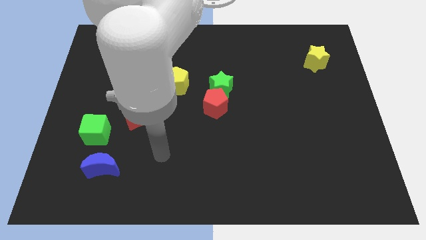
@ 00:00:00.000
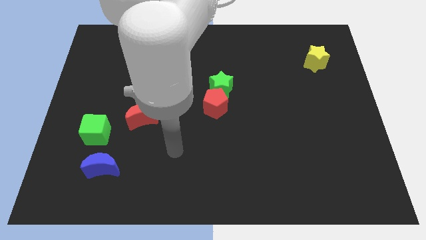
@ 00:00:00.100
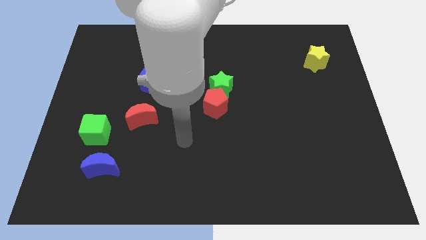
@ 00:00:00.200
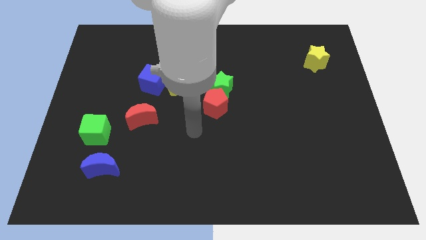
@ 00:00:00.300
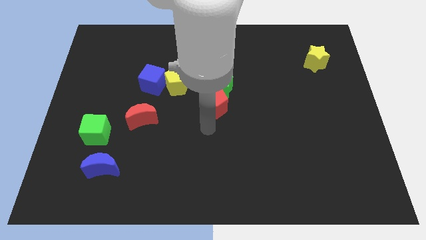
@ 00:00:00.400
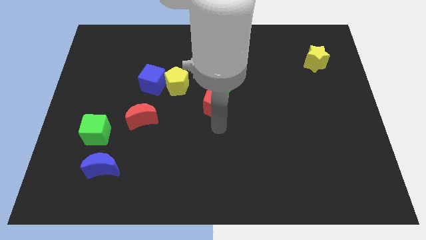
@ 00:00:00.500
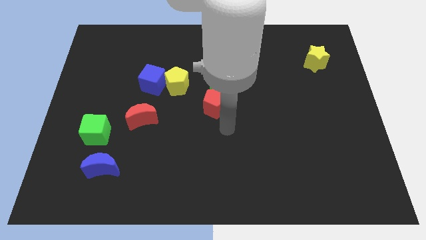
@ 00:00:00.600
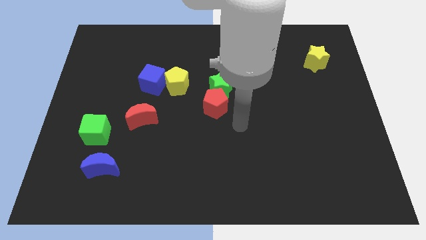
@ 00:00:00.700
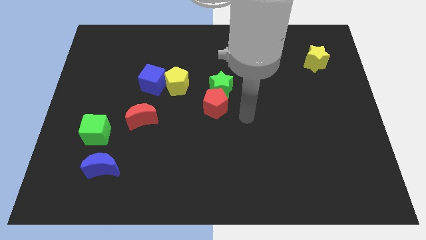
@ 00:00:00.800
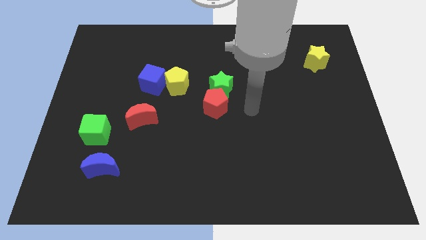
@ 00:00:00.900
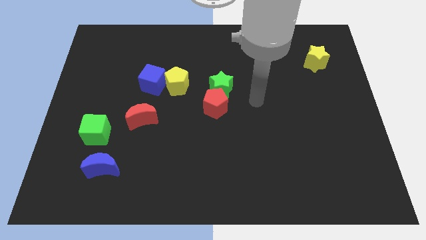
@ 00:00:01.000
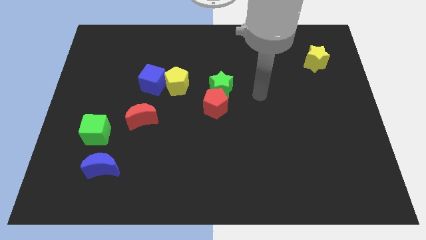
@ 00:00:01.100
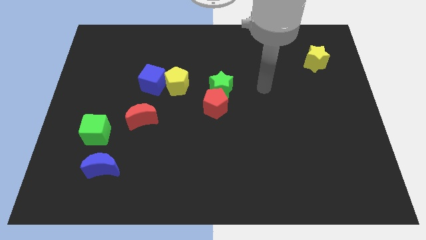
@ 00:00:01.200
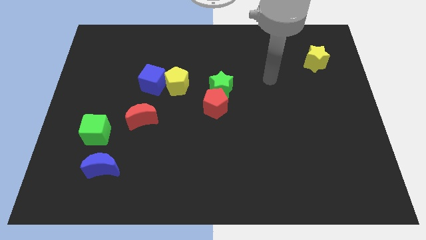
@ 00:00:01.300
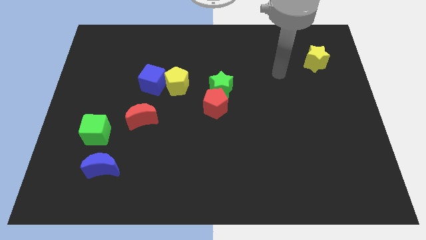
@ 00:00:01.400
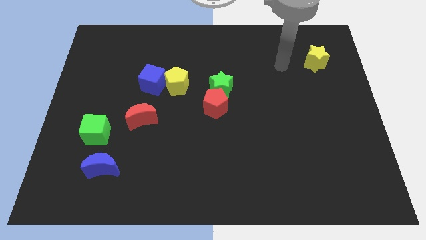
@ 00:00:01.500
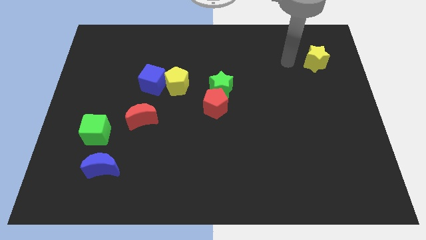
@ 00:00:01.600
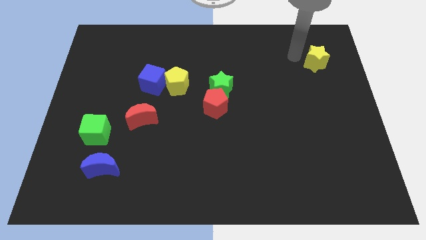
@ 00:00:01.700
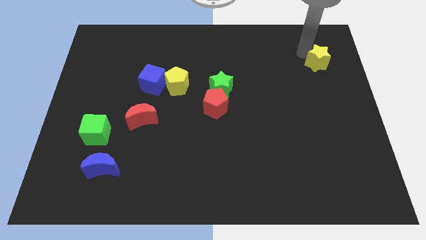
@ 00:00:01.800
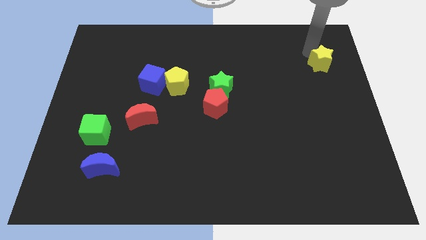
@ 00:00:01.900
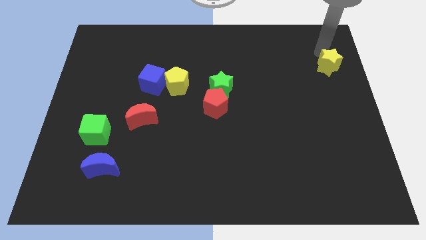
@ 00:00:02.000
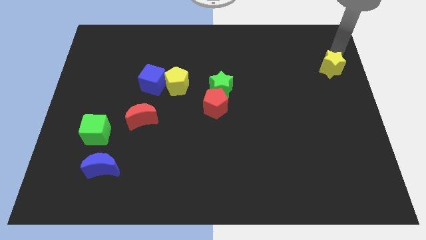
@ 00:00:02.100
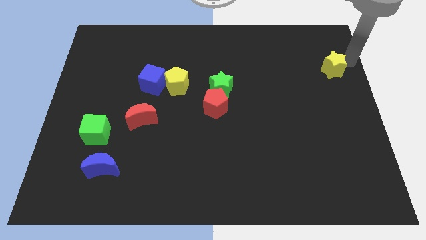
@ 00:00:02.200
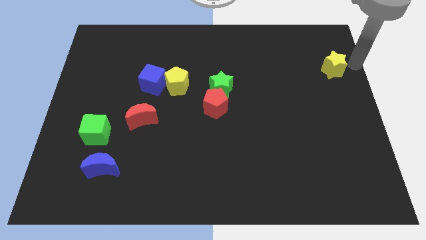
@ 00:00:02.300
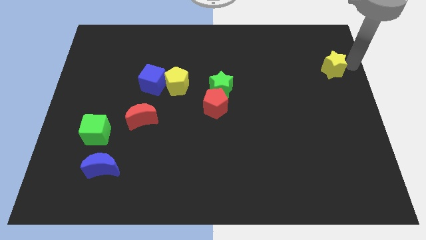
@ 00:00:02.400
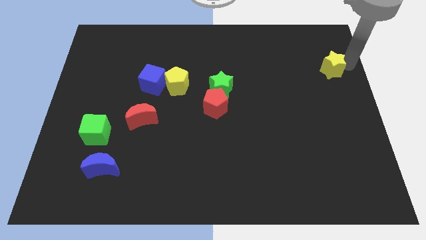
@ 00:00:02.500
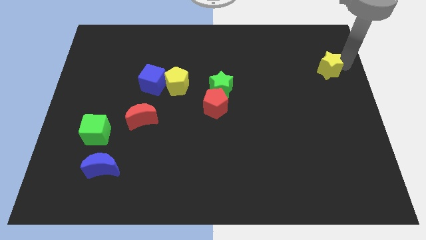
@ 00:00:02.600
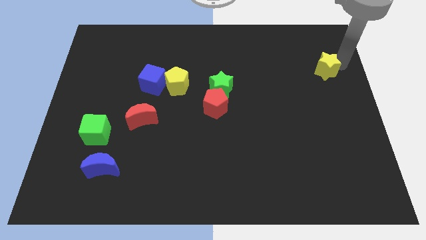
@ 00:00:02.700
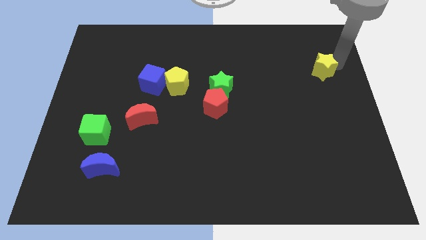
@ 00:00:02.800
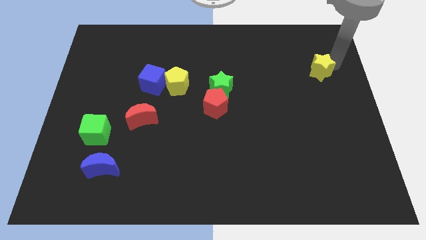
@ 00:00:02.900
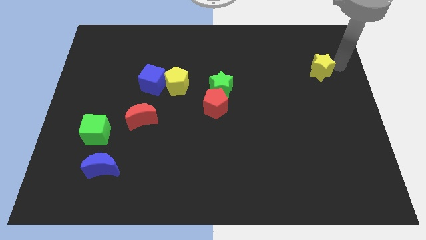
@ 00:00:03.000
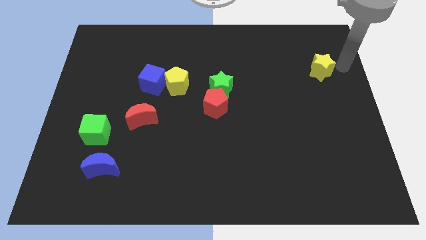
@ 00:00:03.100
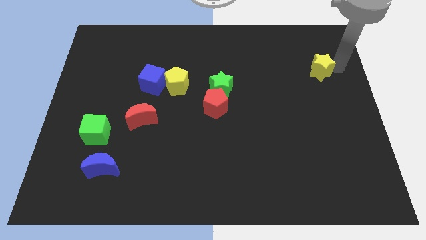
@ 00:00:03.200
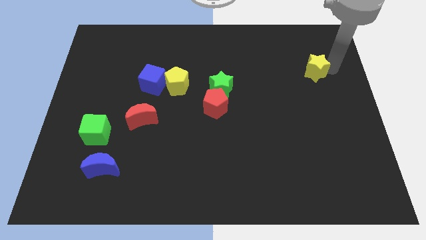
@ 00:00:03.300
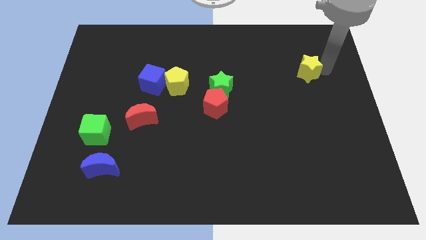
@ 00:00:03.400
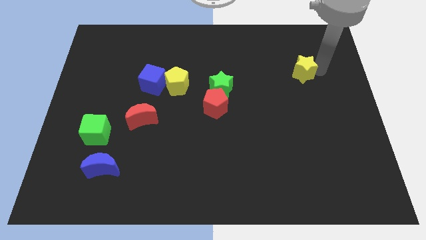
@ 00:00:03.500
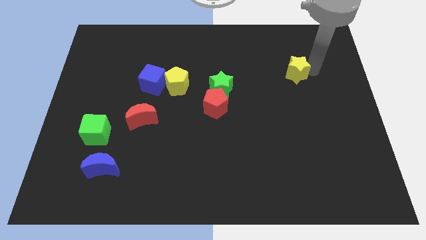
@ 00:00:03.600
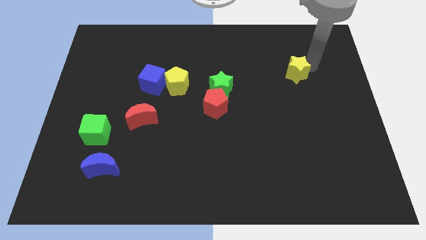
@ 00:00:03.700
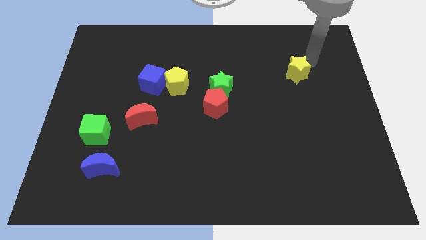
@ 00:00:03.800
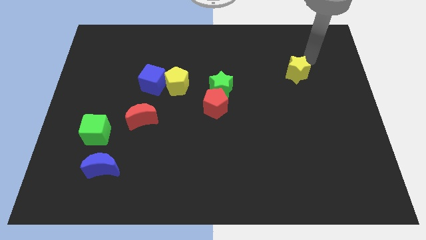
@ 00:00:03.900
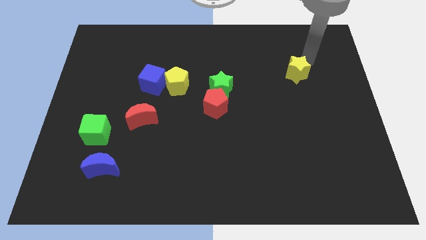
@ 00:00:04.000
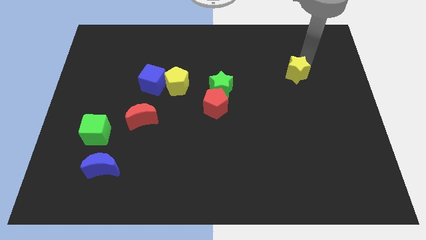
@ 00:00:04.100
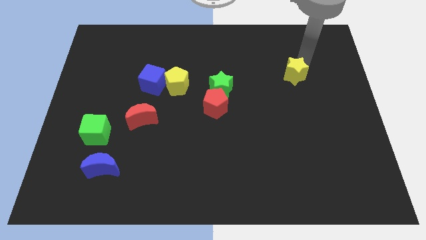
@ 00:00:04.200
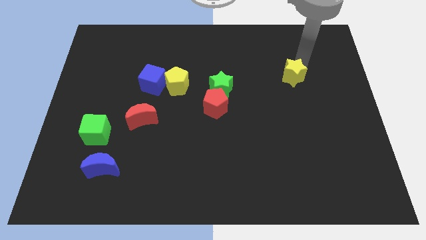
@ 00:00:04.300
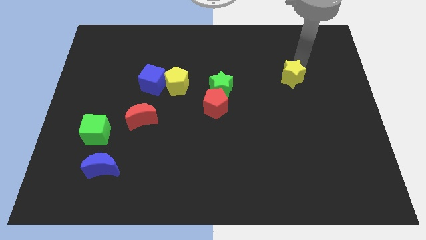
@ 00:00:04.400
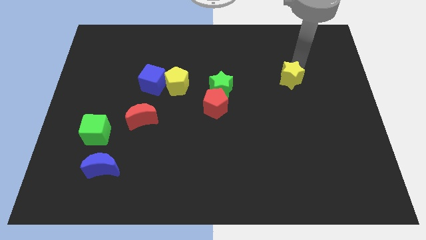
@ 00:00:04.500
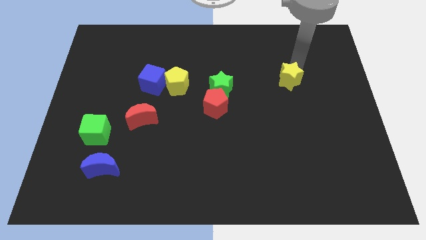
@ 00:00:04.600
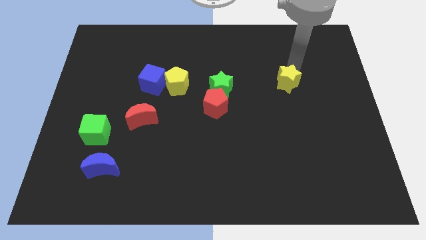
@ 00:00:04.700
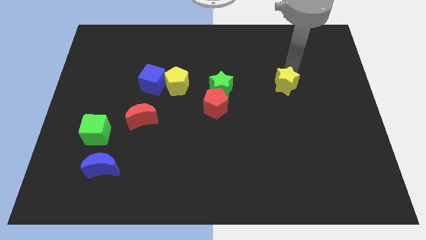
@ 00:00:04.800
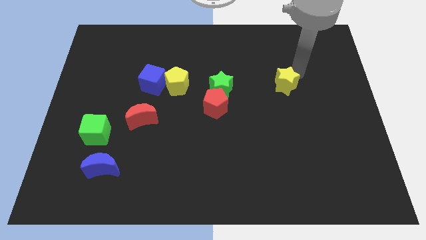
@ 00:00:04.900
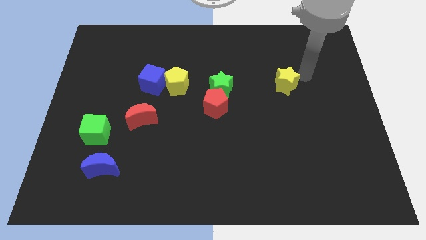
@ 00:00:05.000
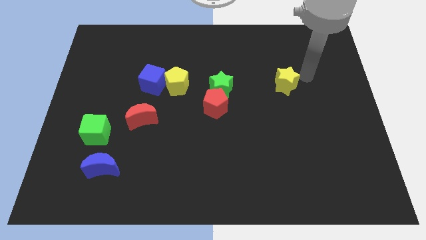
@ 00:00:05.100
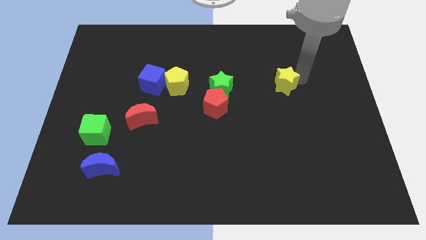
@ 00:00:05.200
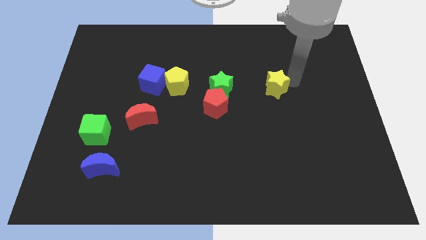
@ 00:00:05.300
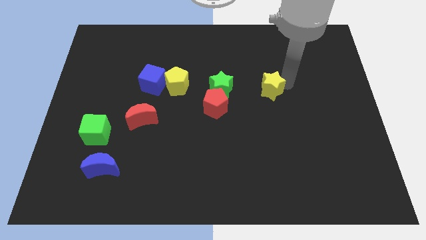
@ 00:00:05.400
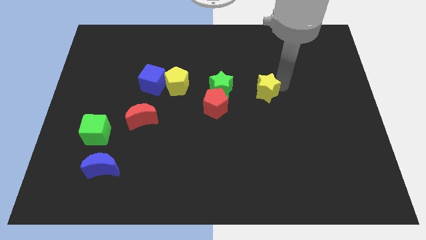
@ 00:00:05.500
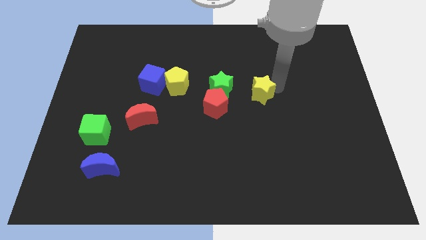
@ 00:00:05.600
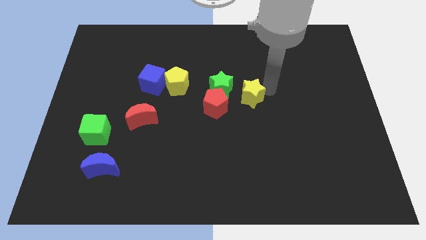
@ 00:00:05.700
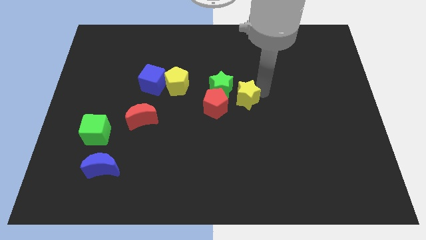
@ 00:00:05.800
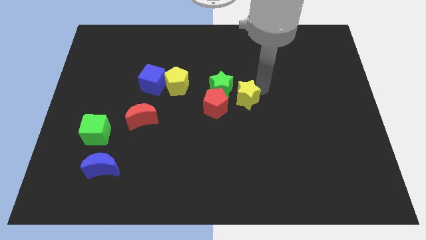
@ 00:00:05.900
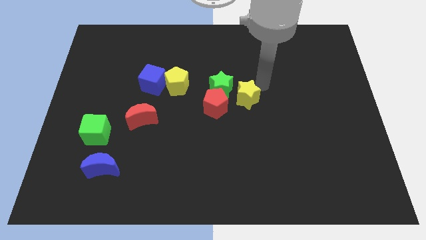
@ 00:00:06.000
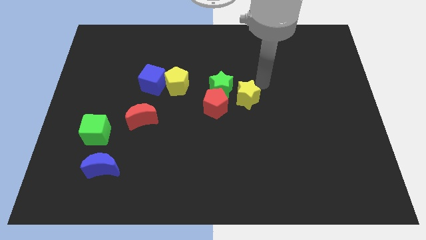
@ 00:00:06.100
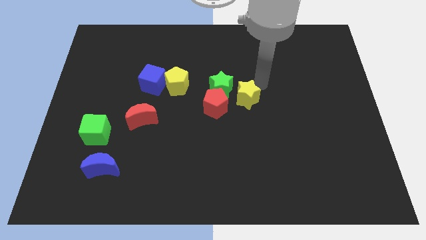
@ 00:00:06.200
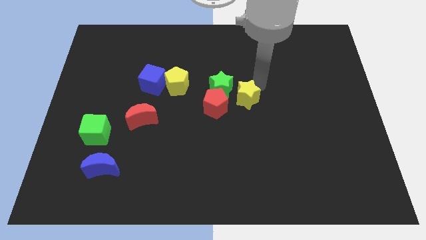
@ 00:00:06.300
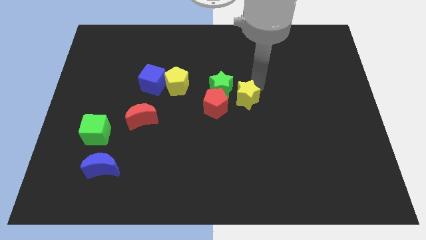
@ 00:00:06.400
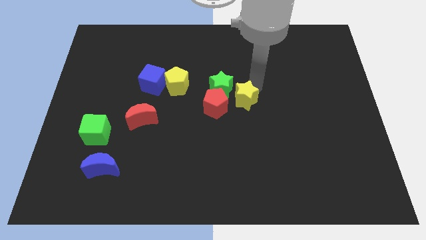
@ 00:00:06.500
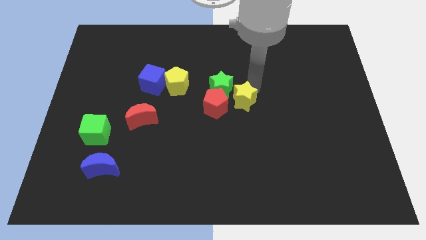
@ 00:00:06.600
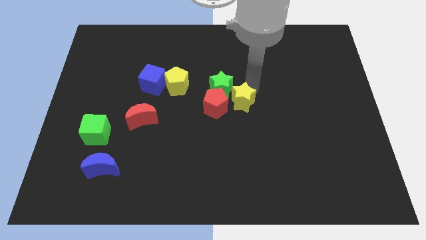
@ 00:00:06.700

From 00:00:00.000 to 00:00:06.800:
push the yellow star to the red pentagon

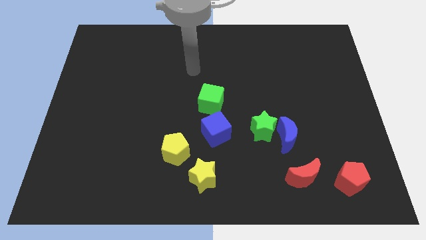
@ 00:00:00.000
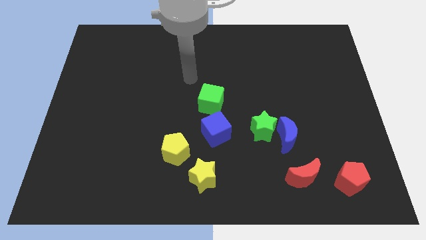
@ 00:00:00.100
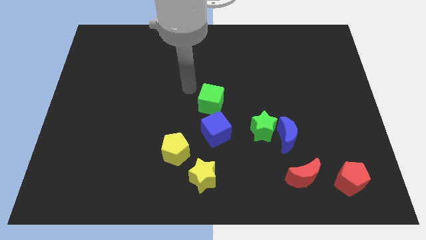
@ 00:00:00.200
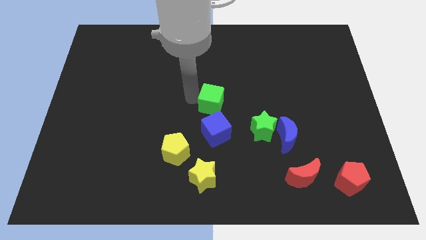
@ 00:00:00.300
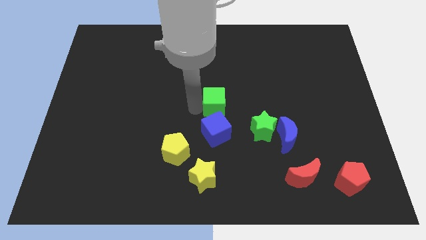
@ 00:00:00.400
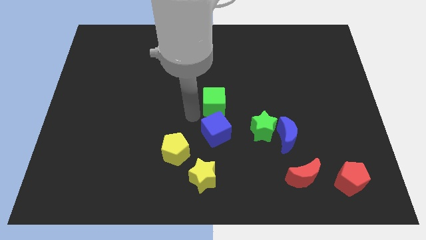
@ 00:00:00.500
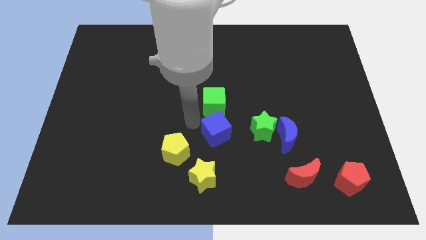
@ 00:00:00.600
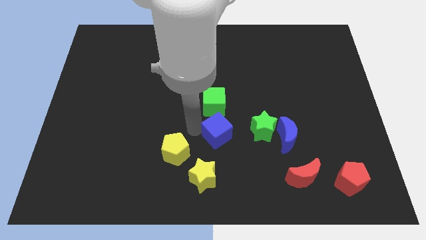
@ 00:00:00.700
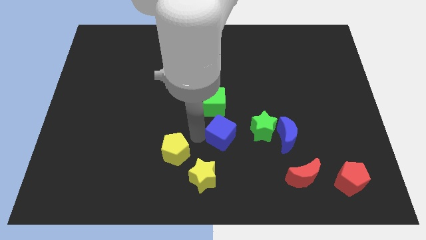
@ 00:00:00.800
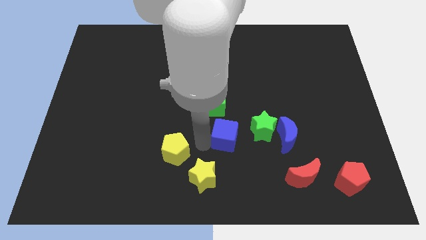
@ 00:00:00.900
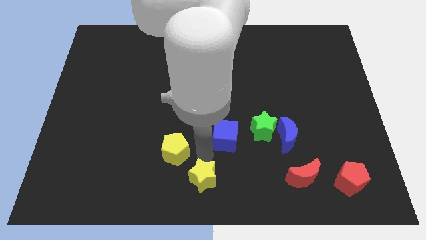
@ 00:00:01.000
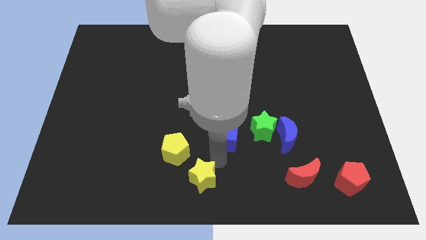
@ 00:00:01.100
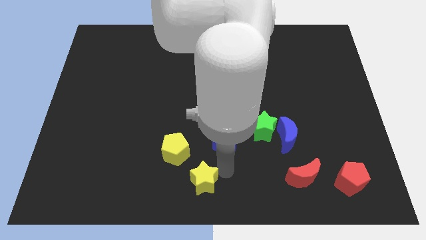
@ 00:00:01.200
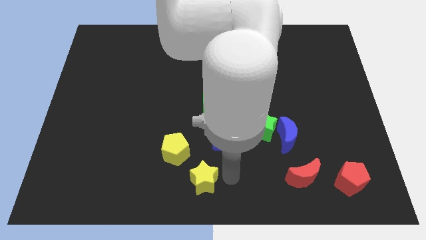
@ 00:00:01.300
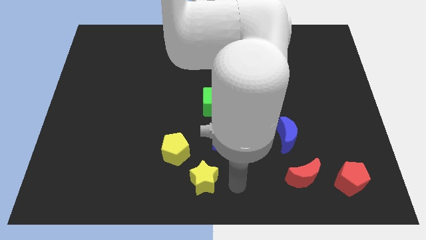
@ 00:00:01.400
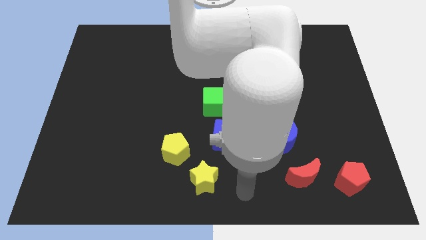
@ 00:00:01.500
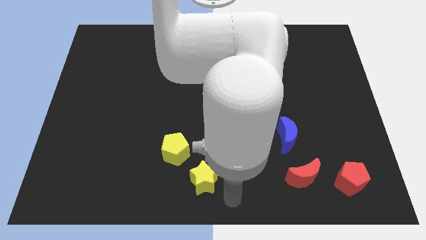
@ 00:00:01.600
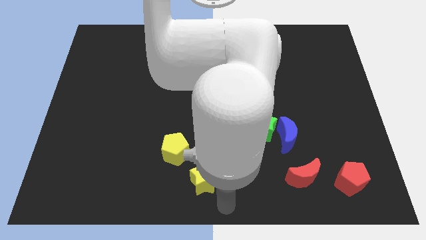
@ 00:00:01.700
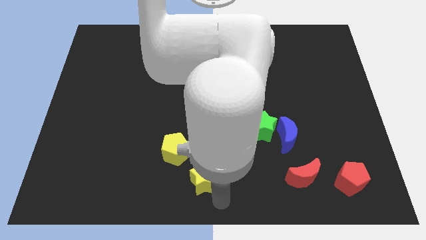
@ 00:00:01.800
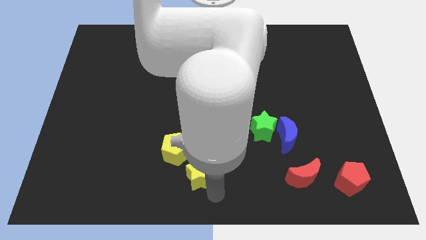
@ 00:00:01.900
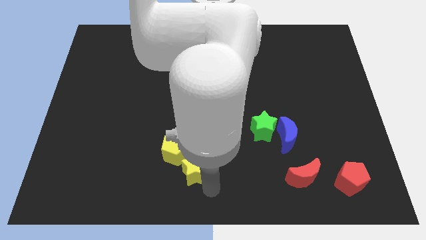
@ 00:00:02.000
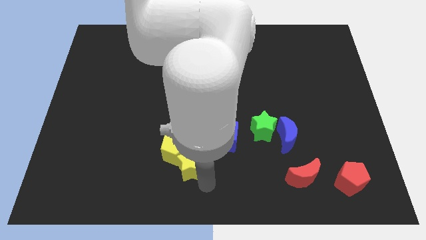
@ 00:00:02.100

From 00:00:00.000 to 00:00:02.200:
put the yellow star to the yellow pentagon
